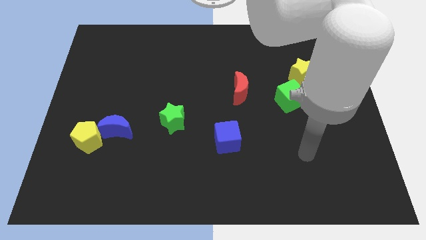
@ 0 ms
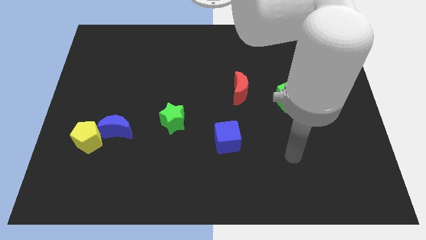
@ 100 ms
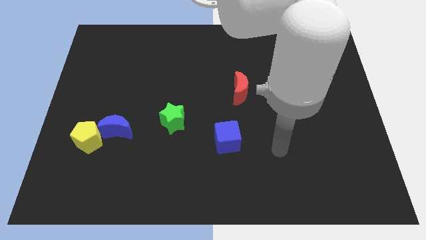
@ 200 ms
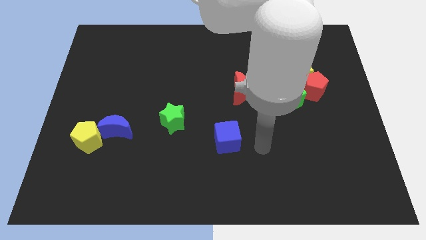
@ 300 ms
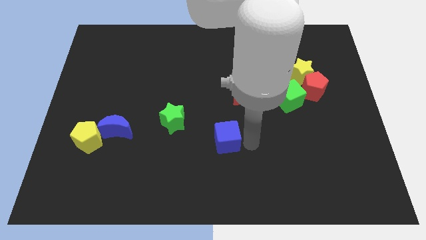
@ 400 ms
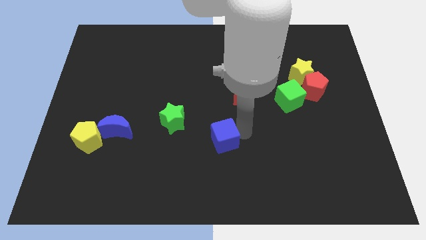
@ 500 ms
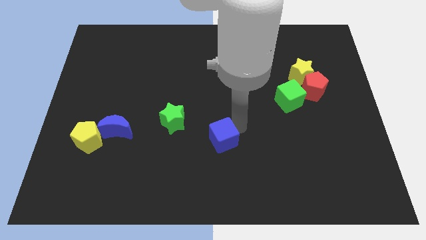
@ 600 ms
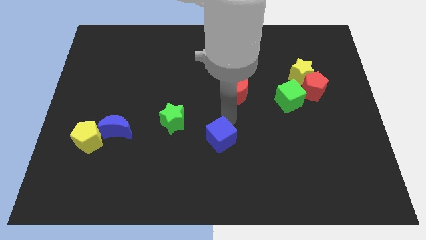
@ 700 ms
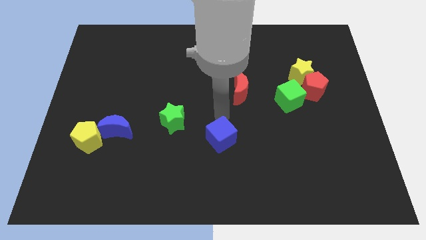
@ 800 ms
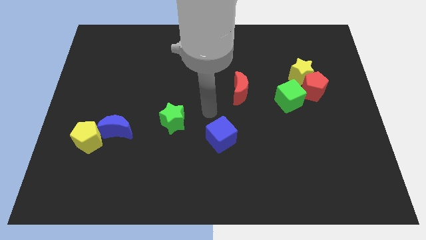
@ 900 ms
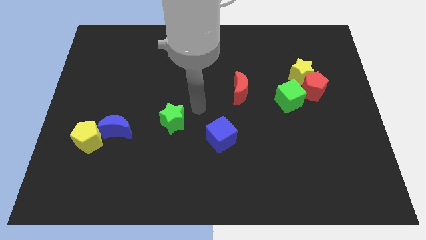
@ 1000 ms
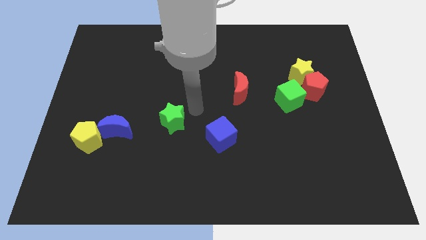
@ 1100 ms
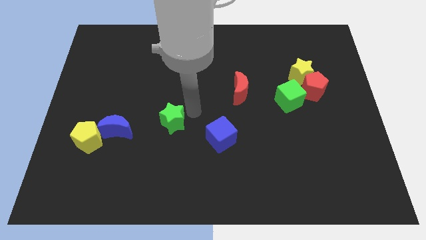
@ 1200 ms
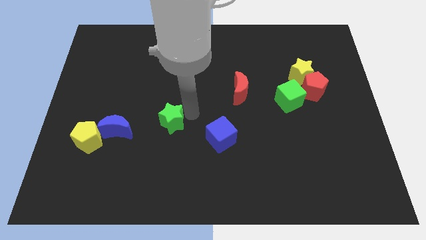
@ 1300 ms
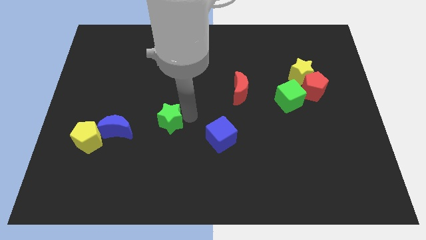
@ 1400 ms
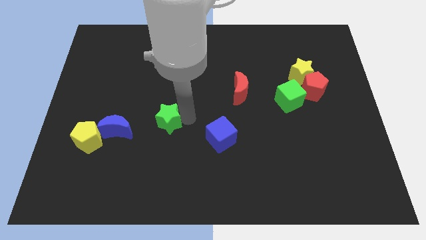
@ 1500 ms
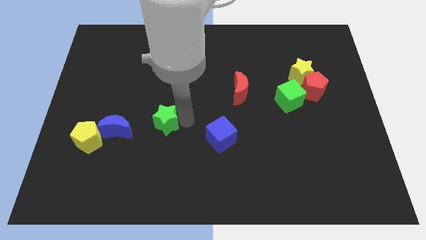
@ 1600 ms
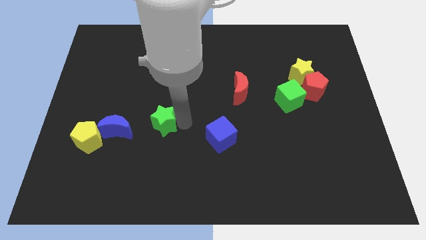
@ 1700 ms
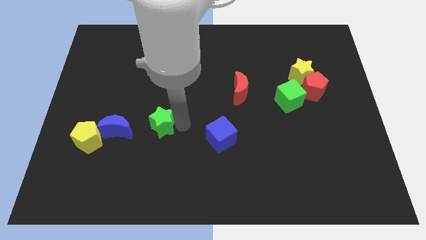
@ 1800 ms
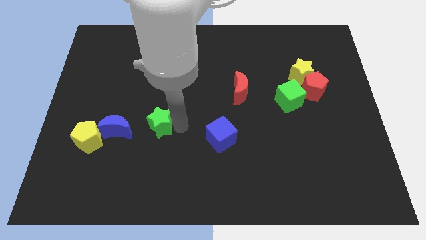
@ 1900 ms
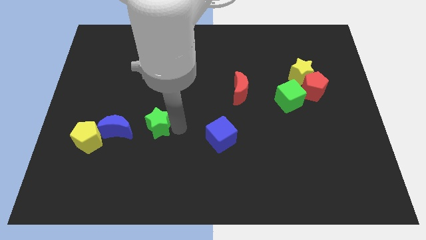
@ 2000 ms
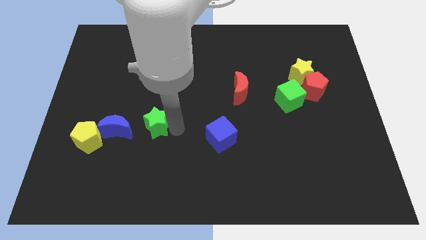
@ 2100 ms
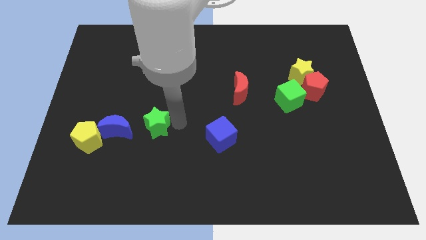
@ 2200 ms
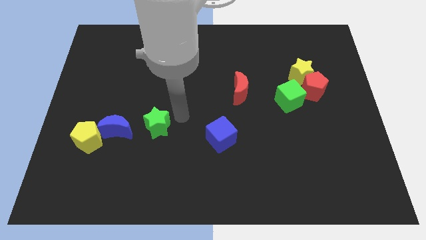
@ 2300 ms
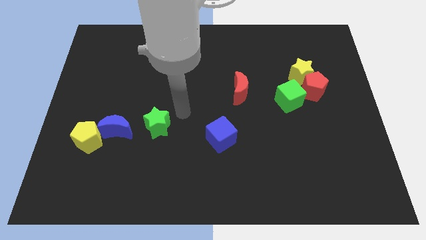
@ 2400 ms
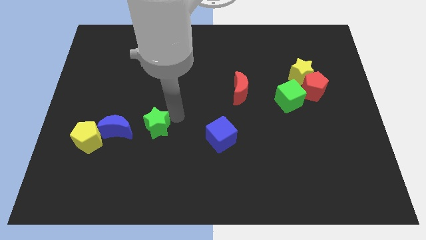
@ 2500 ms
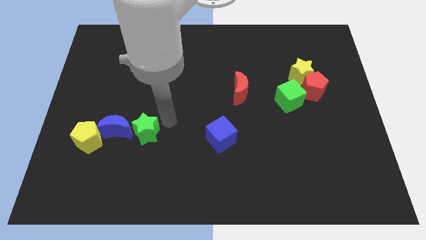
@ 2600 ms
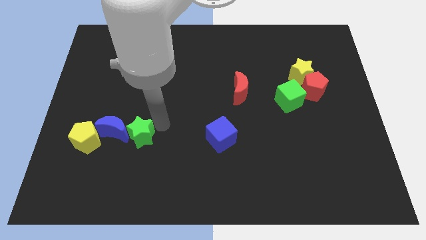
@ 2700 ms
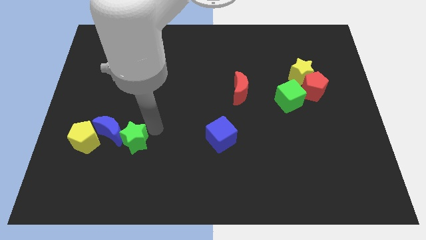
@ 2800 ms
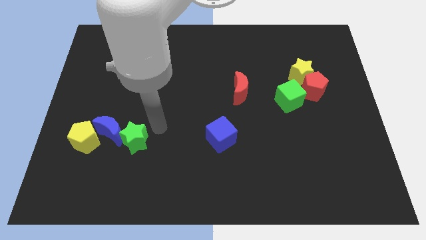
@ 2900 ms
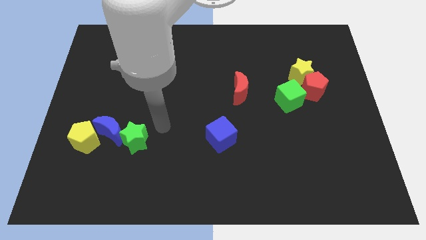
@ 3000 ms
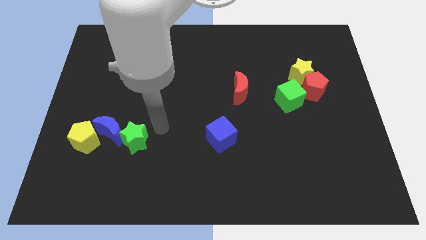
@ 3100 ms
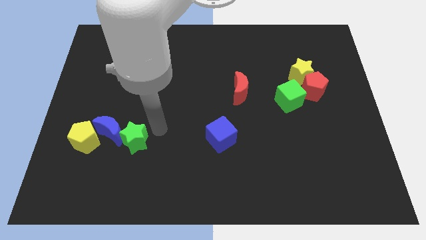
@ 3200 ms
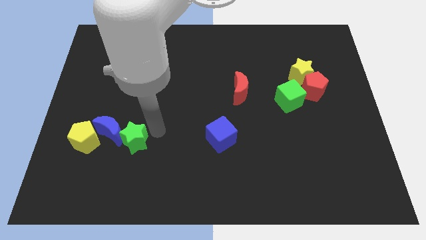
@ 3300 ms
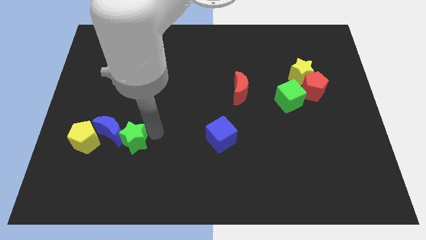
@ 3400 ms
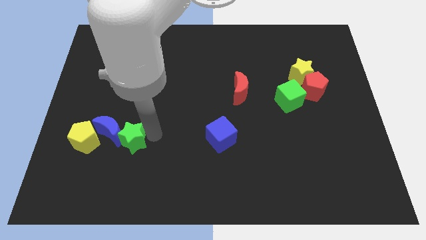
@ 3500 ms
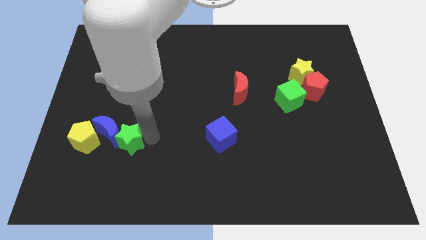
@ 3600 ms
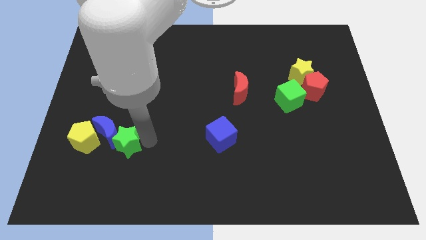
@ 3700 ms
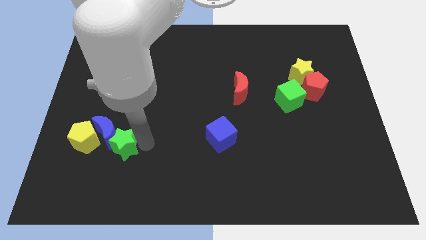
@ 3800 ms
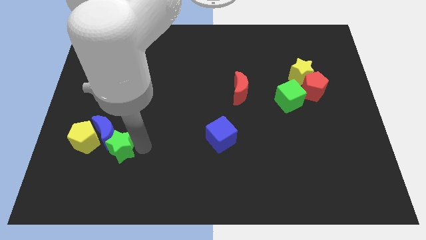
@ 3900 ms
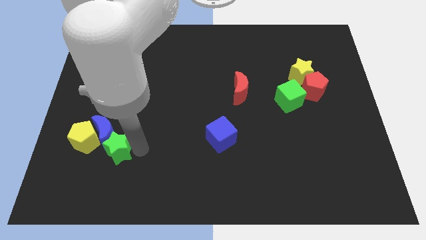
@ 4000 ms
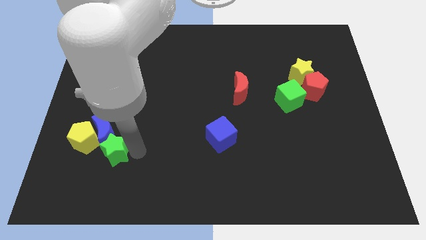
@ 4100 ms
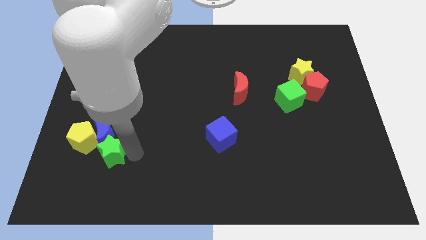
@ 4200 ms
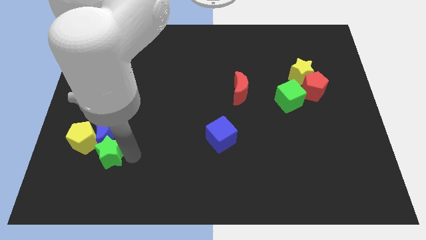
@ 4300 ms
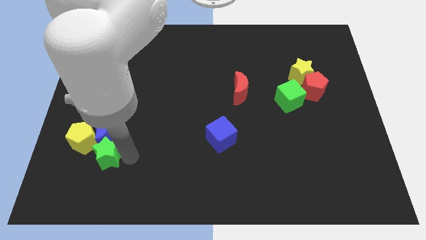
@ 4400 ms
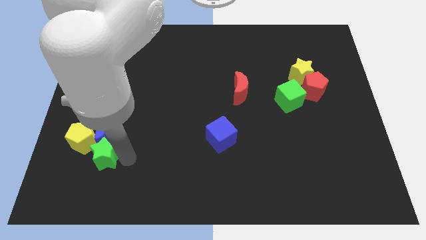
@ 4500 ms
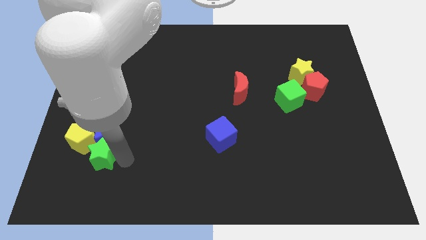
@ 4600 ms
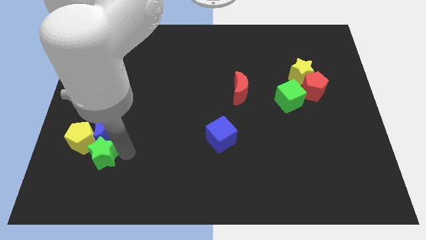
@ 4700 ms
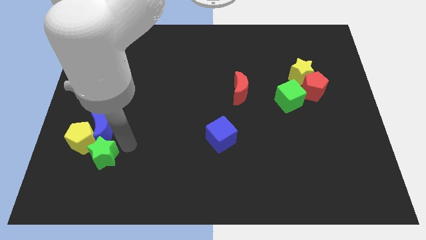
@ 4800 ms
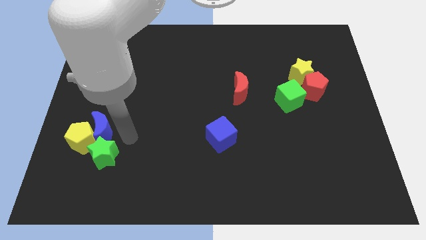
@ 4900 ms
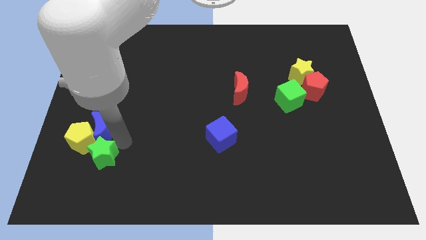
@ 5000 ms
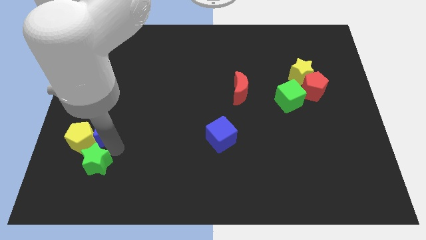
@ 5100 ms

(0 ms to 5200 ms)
push the green star below the yellow pentagon

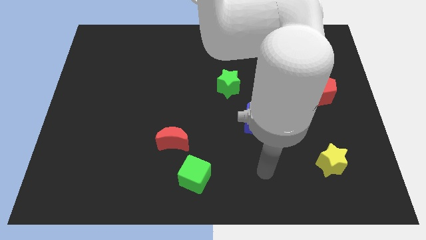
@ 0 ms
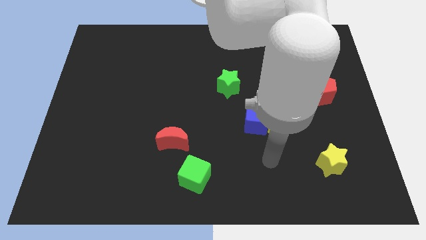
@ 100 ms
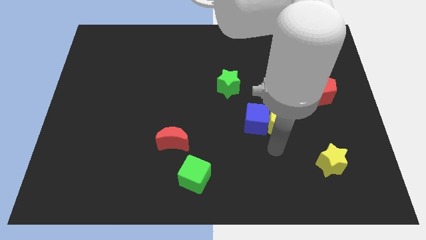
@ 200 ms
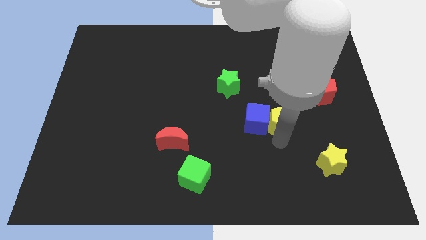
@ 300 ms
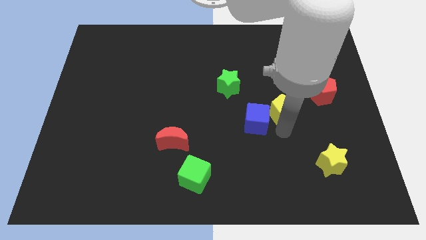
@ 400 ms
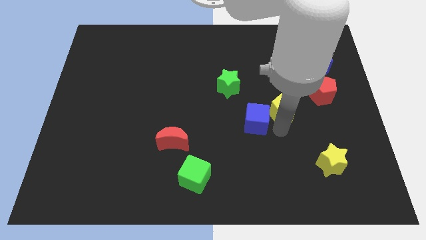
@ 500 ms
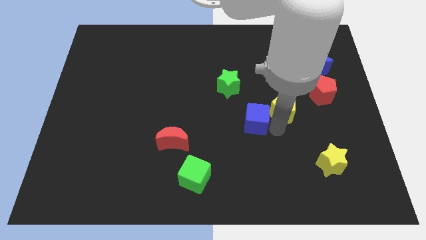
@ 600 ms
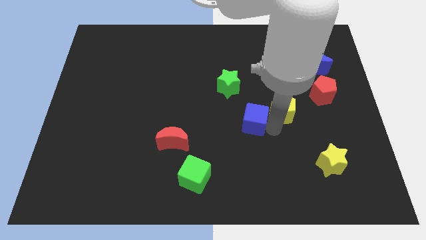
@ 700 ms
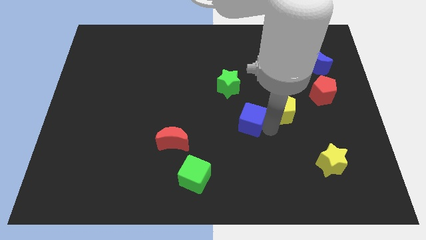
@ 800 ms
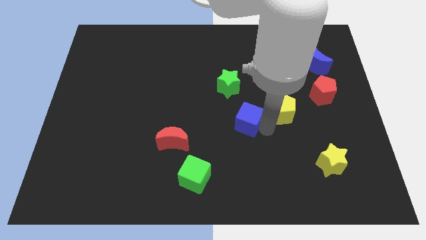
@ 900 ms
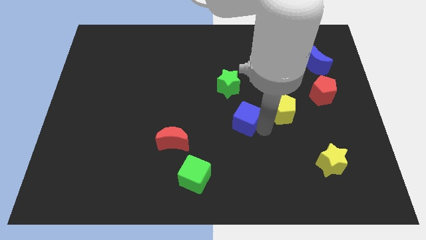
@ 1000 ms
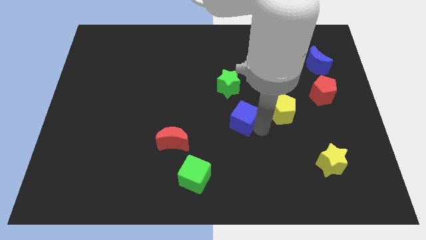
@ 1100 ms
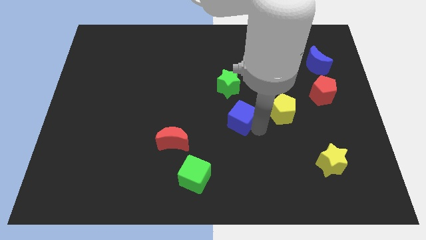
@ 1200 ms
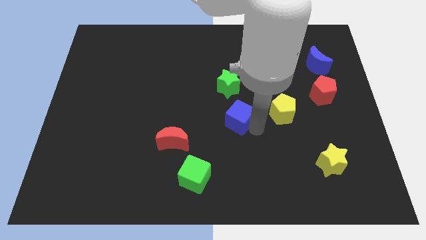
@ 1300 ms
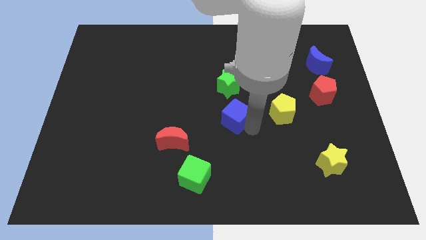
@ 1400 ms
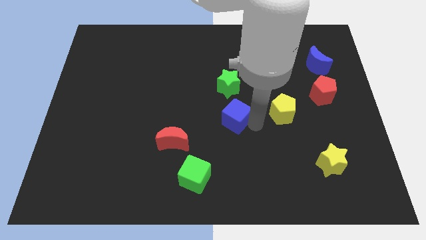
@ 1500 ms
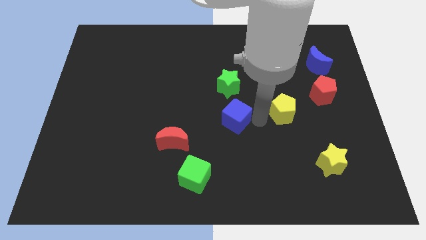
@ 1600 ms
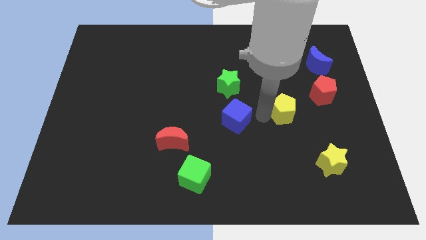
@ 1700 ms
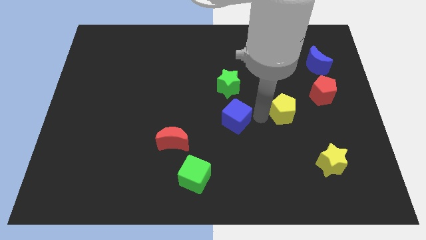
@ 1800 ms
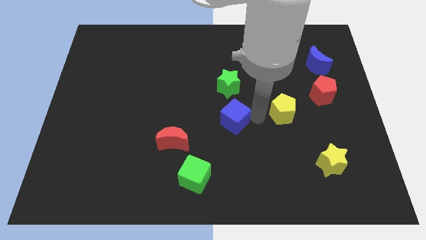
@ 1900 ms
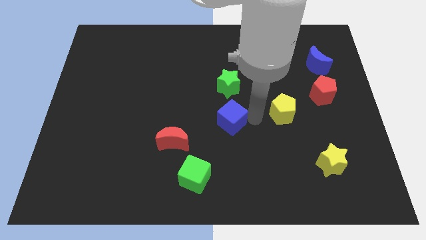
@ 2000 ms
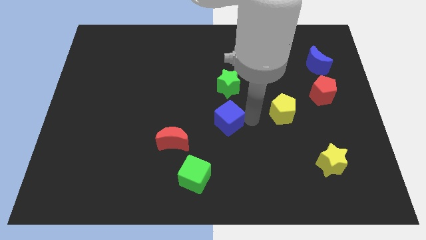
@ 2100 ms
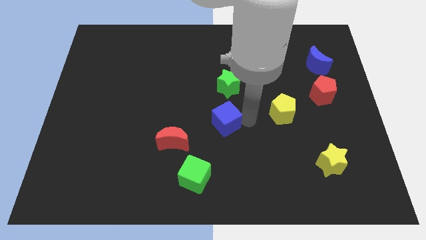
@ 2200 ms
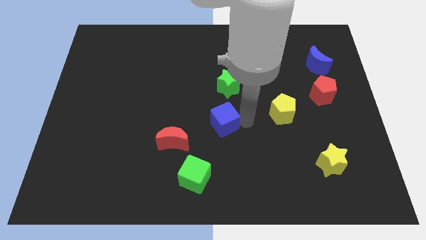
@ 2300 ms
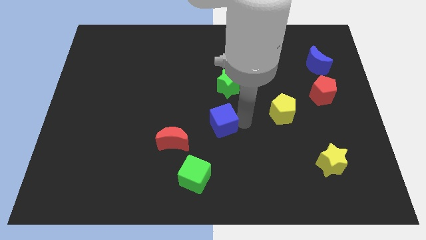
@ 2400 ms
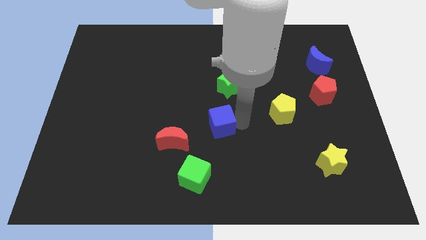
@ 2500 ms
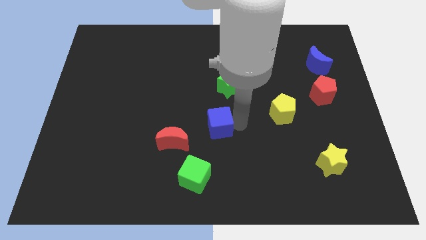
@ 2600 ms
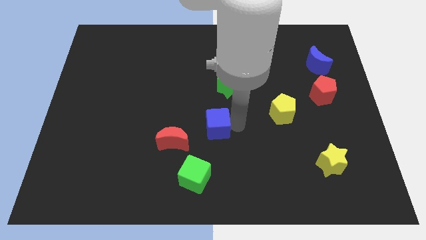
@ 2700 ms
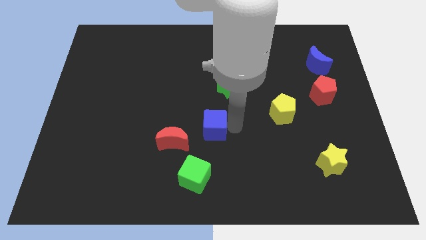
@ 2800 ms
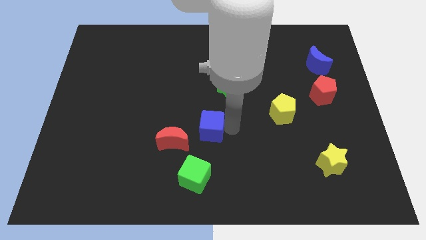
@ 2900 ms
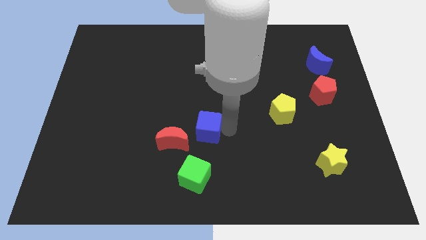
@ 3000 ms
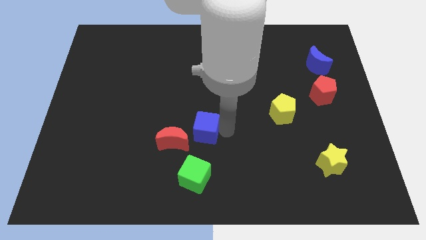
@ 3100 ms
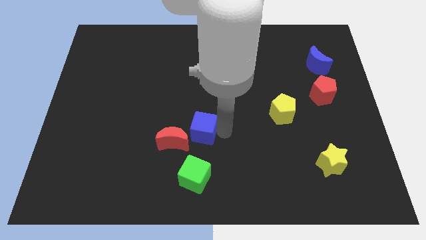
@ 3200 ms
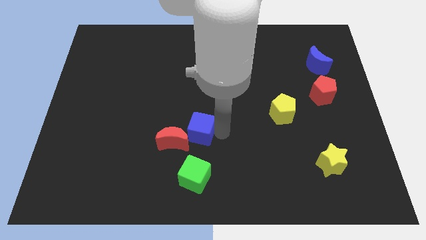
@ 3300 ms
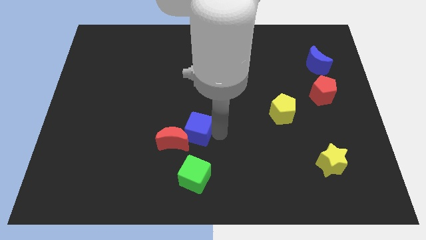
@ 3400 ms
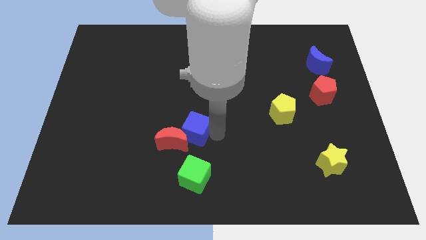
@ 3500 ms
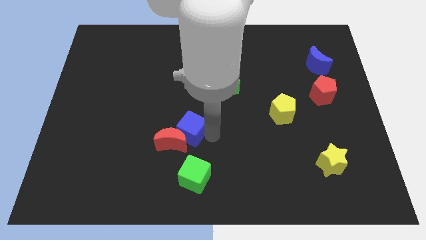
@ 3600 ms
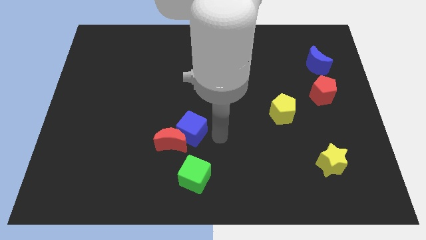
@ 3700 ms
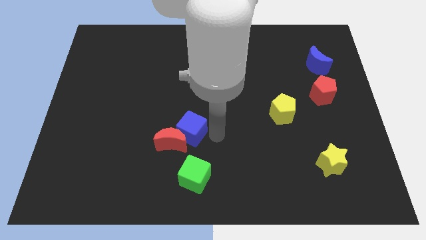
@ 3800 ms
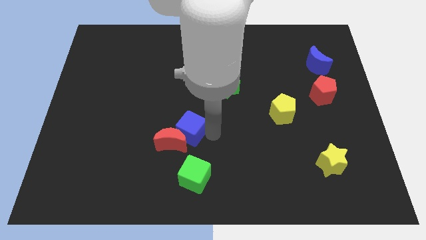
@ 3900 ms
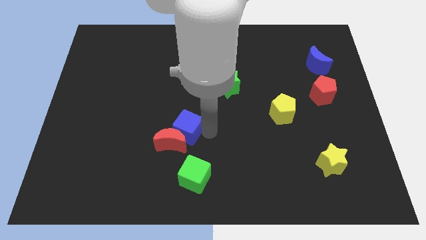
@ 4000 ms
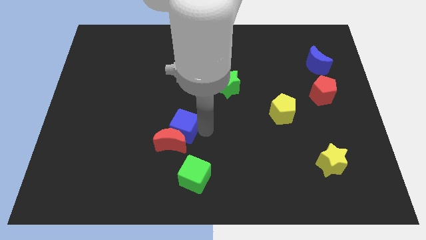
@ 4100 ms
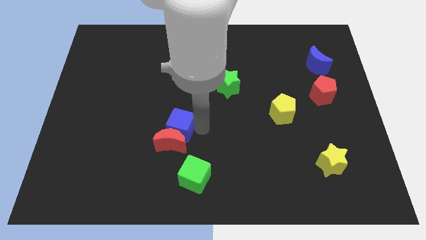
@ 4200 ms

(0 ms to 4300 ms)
put the blue cube diagonally up and to the left of the red moon
